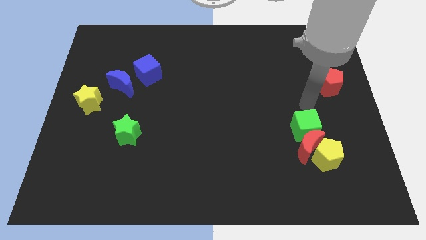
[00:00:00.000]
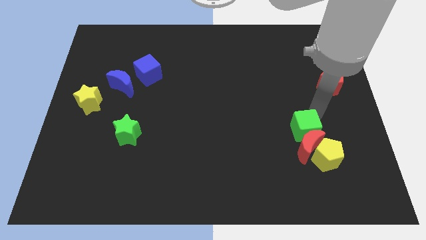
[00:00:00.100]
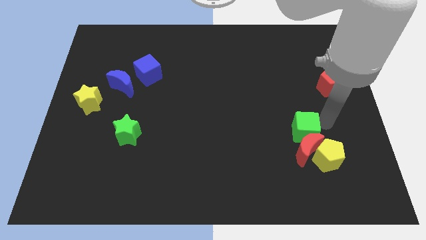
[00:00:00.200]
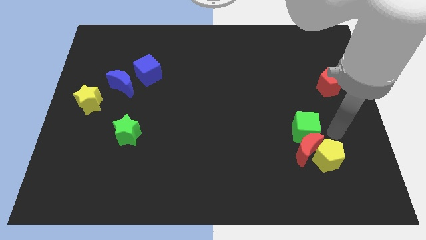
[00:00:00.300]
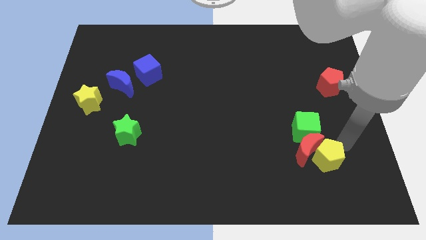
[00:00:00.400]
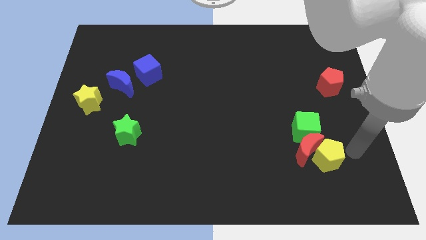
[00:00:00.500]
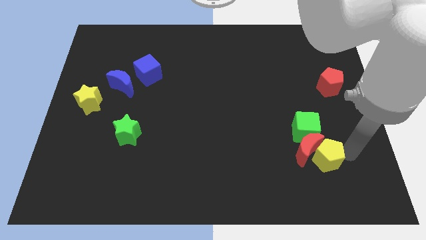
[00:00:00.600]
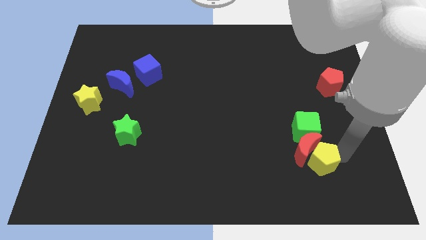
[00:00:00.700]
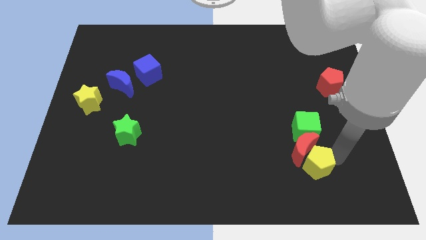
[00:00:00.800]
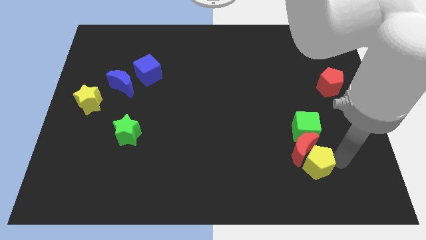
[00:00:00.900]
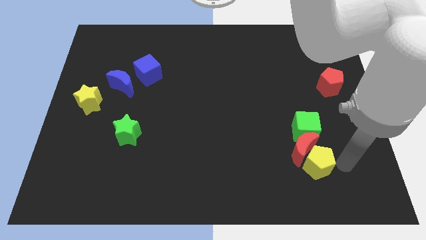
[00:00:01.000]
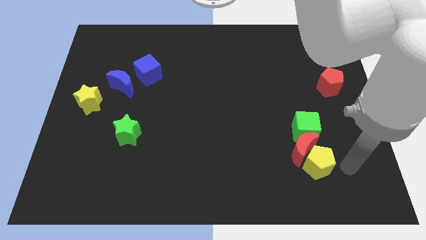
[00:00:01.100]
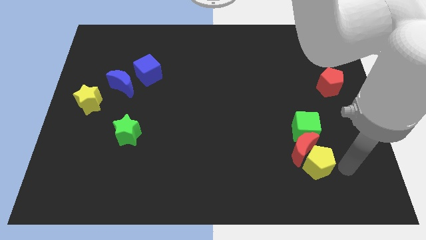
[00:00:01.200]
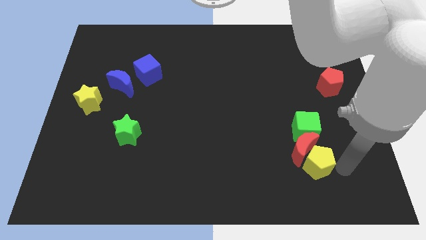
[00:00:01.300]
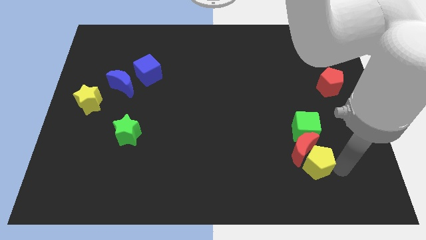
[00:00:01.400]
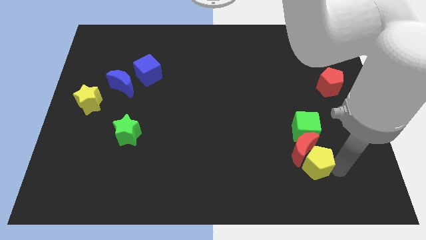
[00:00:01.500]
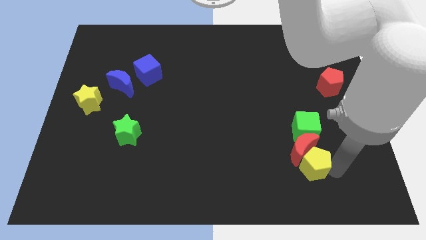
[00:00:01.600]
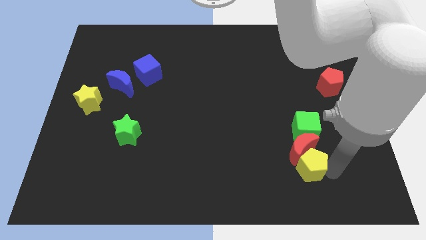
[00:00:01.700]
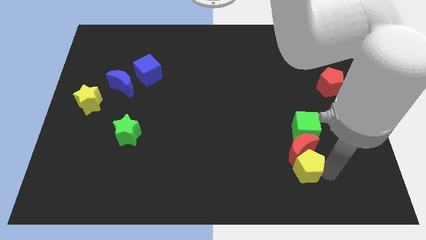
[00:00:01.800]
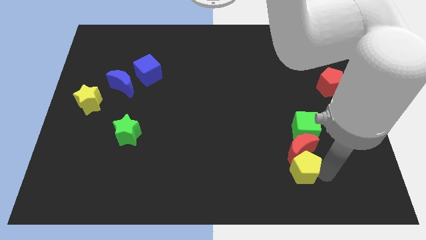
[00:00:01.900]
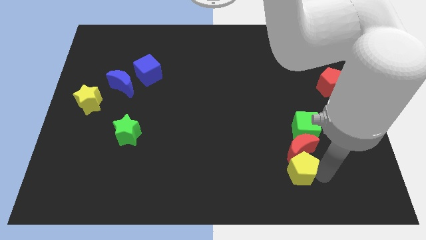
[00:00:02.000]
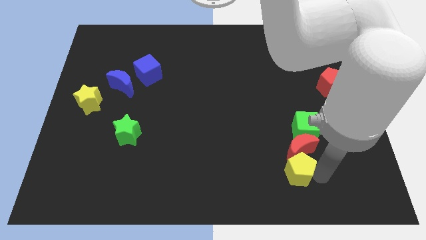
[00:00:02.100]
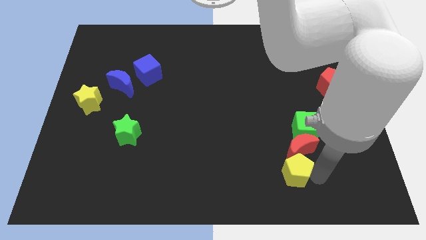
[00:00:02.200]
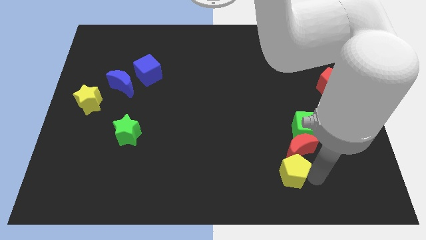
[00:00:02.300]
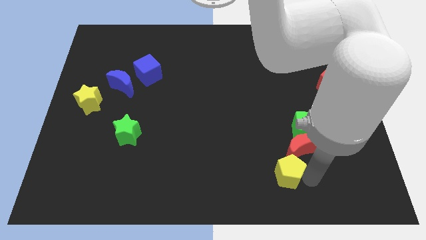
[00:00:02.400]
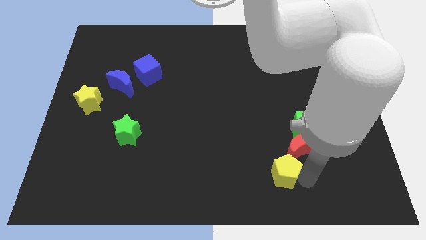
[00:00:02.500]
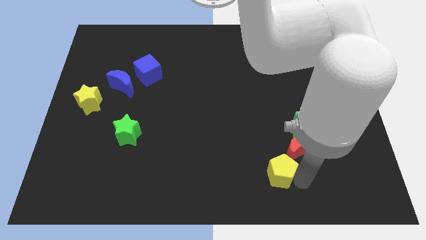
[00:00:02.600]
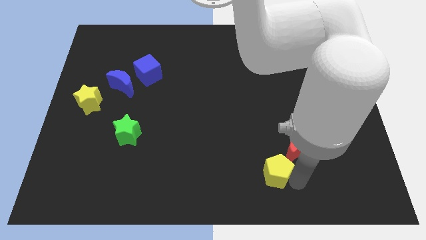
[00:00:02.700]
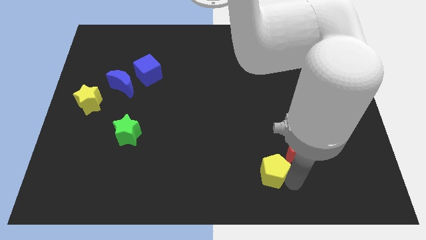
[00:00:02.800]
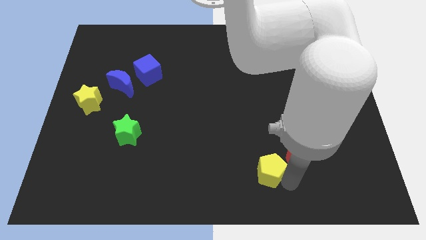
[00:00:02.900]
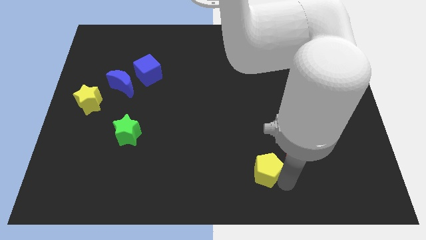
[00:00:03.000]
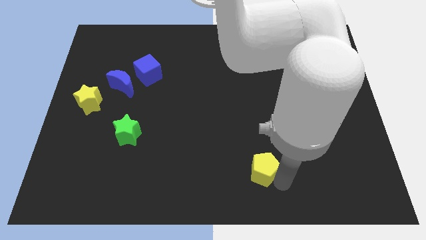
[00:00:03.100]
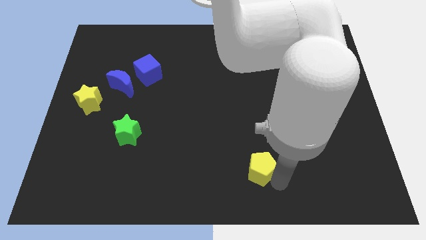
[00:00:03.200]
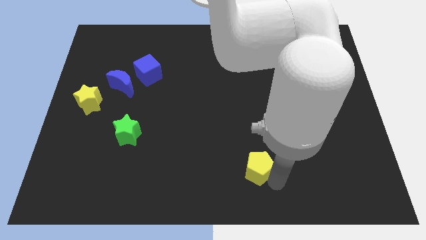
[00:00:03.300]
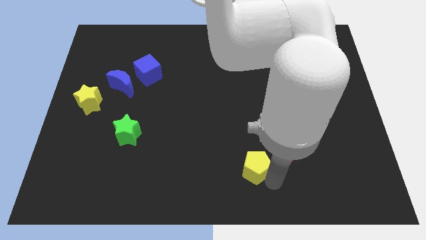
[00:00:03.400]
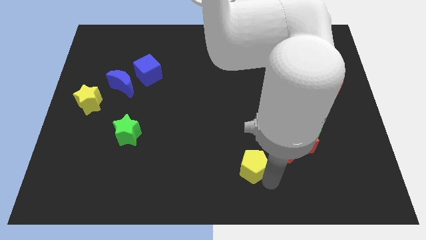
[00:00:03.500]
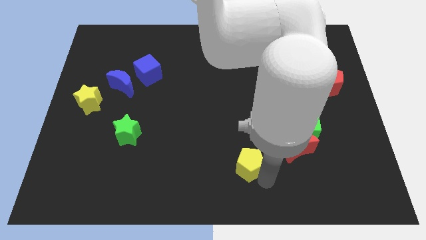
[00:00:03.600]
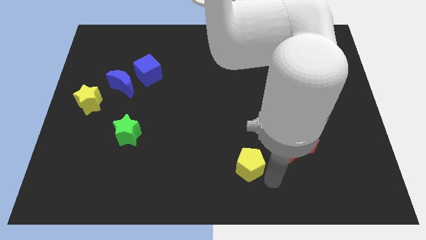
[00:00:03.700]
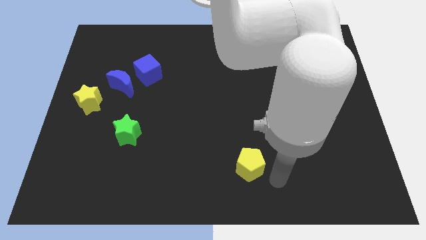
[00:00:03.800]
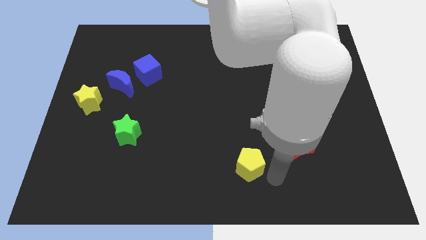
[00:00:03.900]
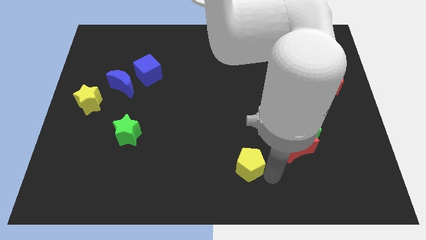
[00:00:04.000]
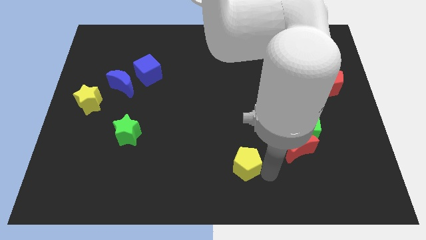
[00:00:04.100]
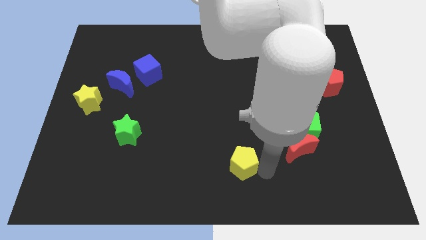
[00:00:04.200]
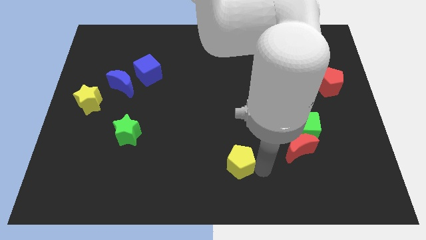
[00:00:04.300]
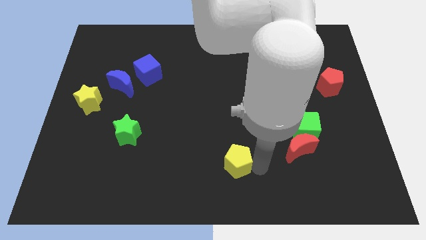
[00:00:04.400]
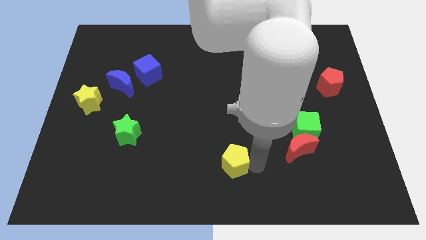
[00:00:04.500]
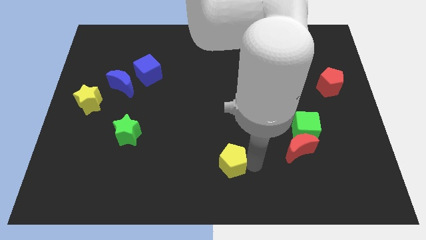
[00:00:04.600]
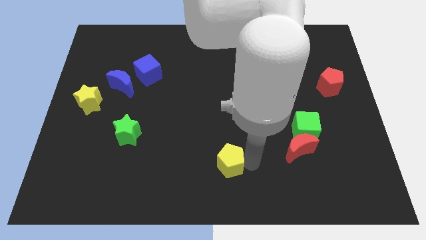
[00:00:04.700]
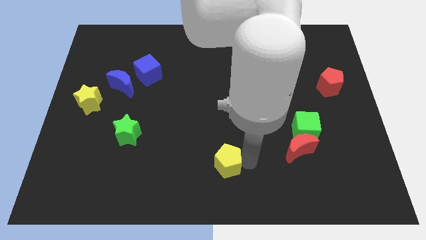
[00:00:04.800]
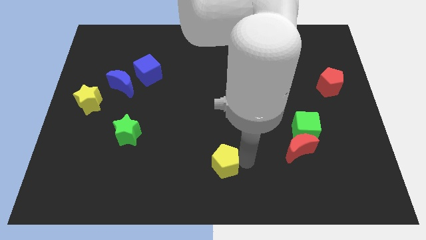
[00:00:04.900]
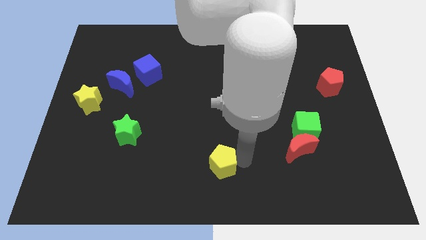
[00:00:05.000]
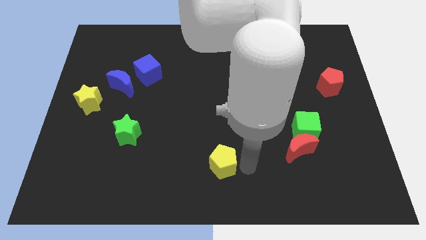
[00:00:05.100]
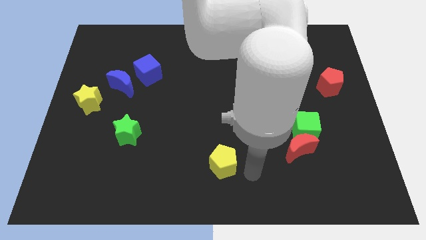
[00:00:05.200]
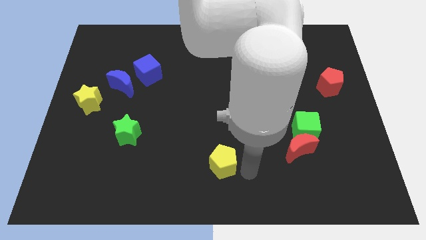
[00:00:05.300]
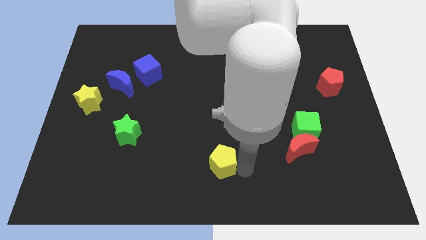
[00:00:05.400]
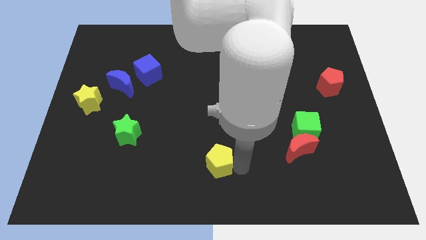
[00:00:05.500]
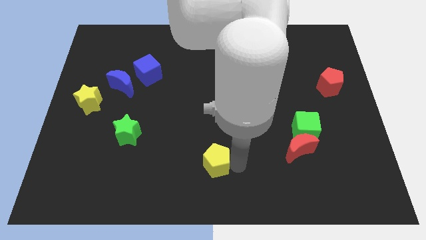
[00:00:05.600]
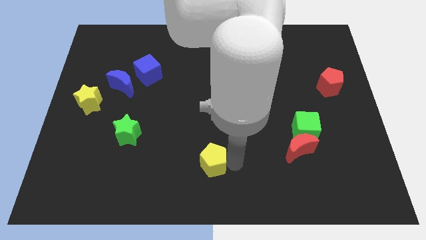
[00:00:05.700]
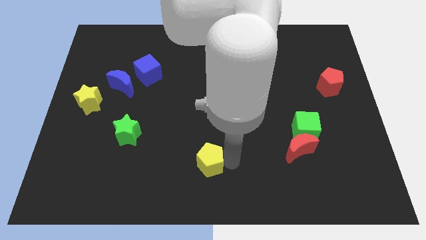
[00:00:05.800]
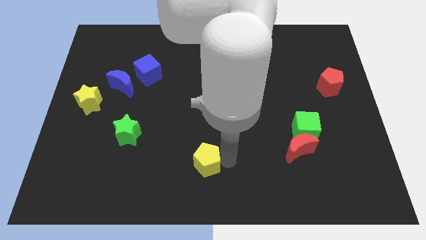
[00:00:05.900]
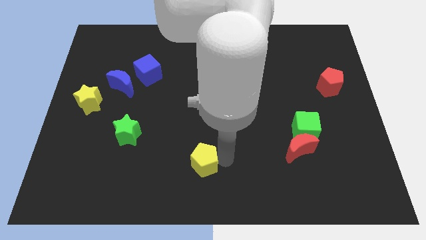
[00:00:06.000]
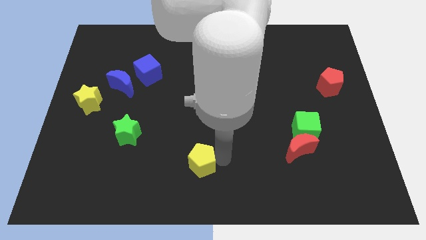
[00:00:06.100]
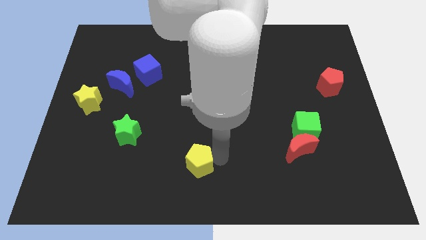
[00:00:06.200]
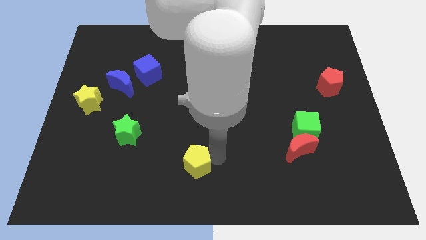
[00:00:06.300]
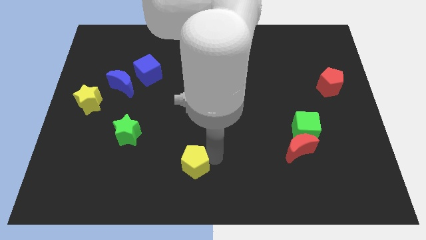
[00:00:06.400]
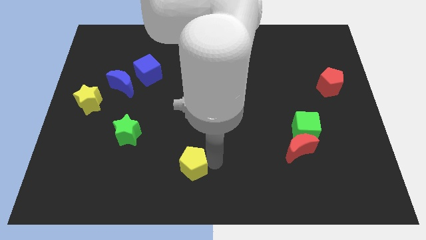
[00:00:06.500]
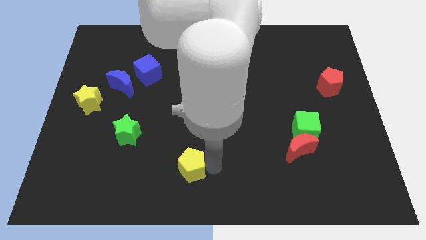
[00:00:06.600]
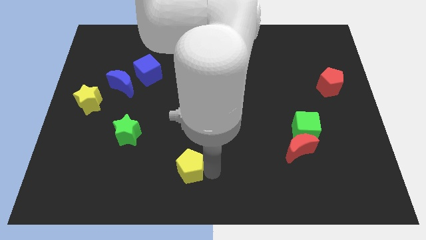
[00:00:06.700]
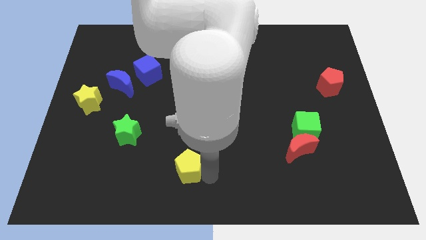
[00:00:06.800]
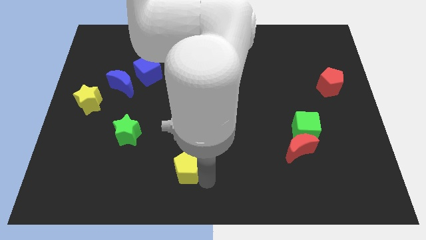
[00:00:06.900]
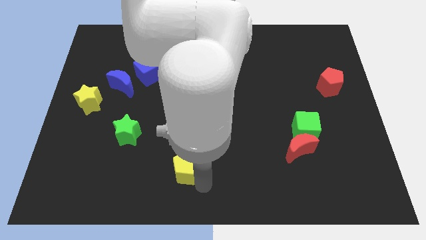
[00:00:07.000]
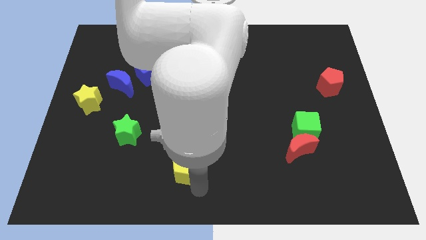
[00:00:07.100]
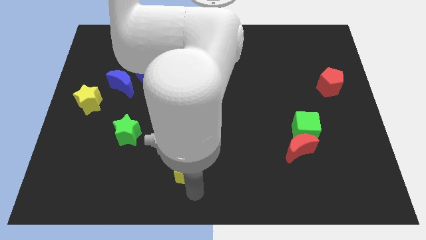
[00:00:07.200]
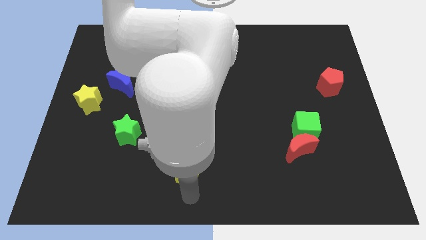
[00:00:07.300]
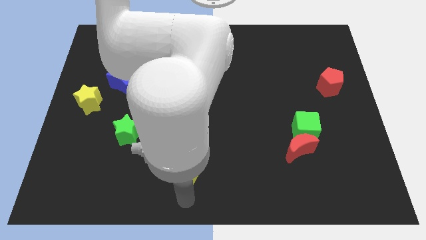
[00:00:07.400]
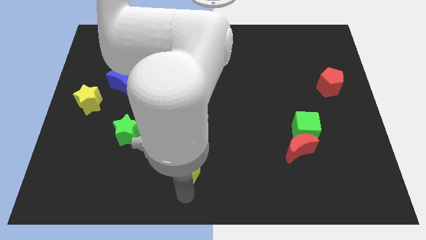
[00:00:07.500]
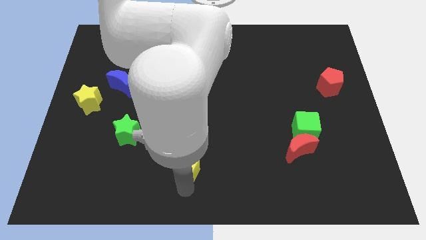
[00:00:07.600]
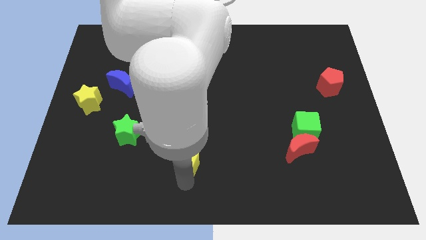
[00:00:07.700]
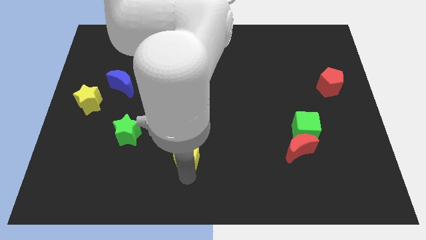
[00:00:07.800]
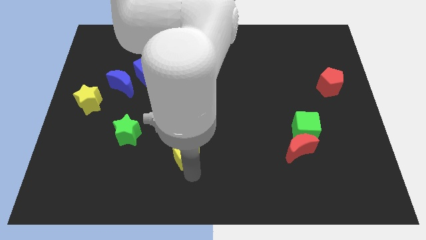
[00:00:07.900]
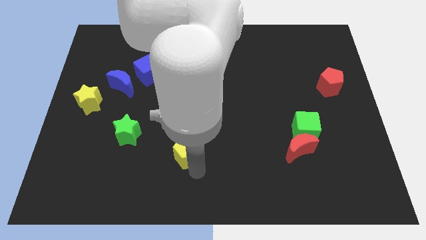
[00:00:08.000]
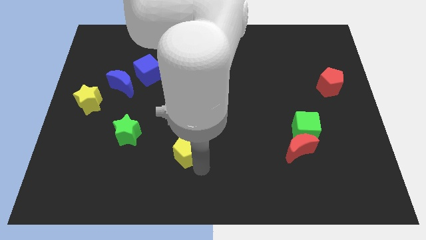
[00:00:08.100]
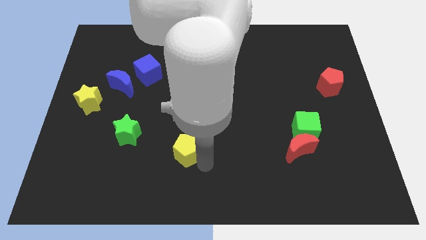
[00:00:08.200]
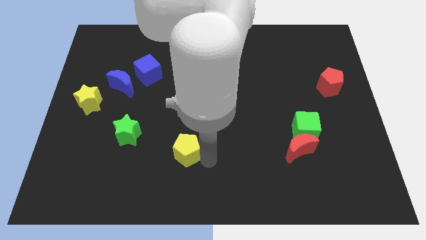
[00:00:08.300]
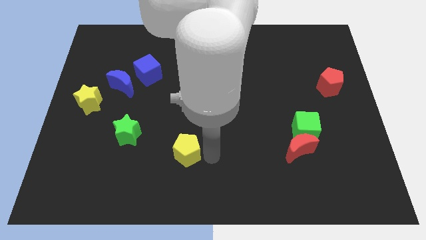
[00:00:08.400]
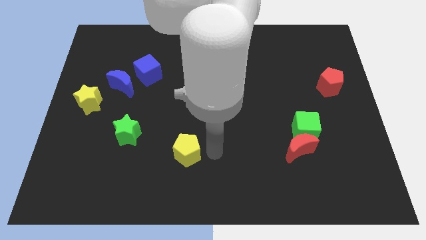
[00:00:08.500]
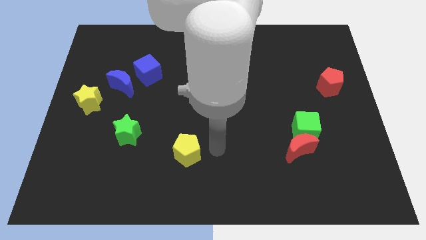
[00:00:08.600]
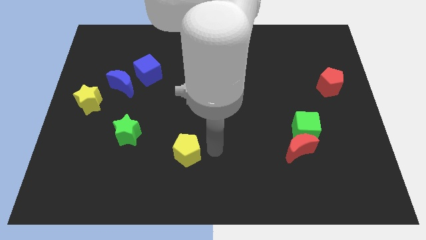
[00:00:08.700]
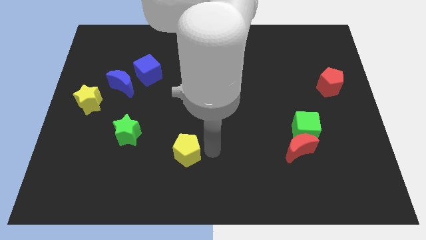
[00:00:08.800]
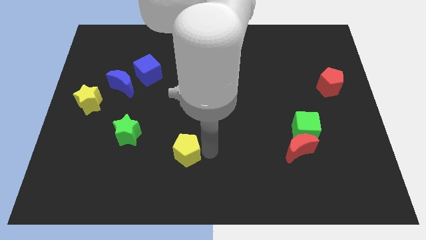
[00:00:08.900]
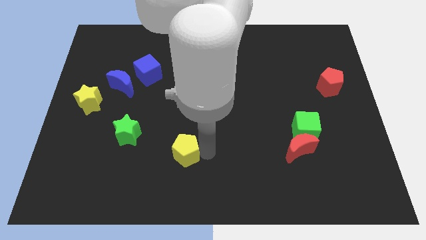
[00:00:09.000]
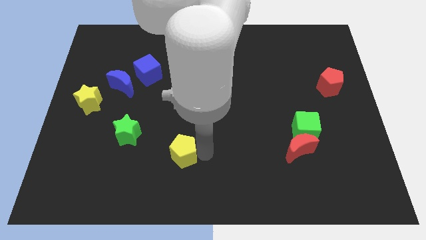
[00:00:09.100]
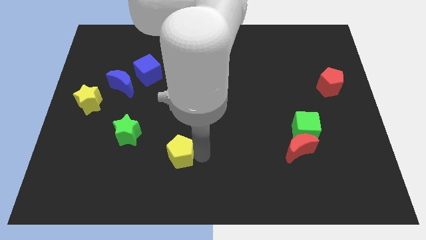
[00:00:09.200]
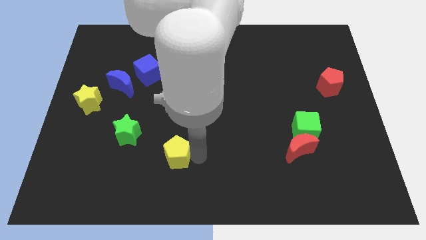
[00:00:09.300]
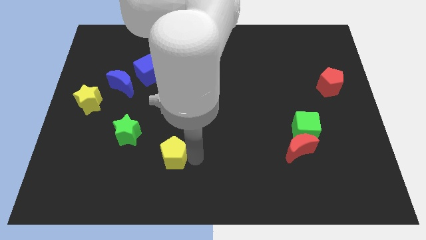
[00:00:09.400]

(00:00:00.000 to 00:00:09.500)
push the yellow pentagon to the bottom right side of the green star
